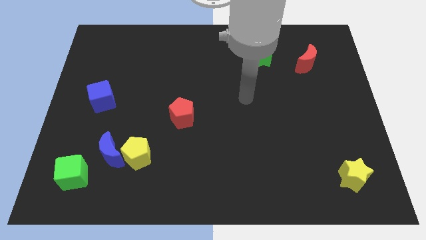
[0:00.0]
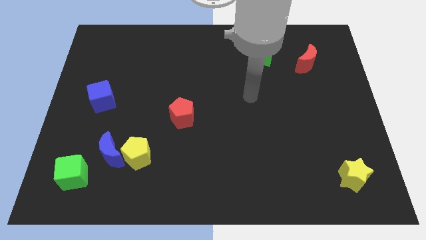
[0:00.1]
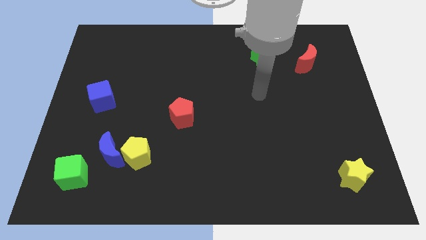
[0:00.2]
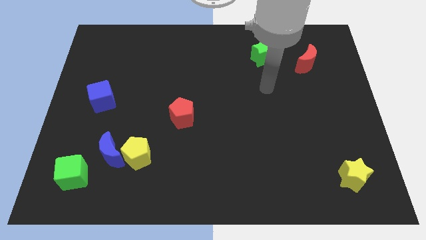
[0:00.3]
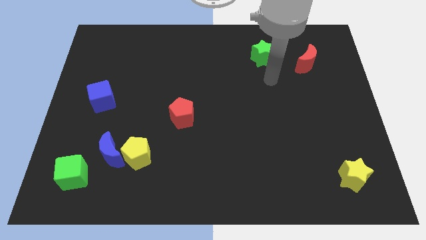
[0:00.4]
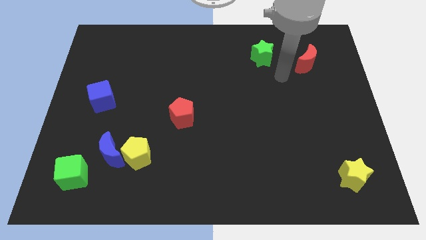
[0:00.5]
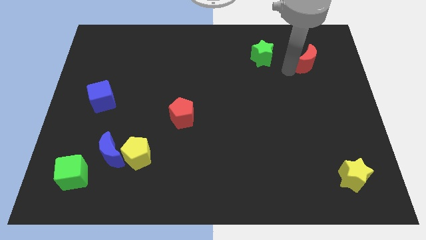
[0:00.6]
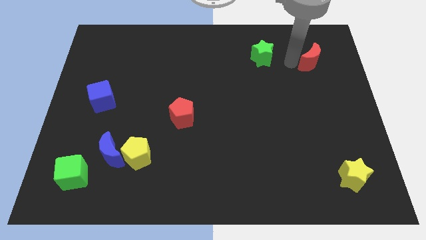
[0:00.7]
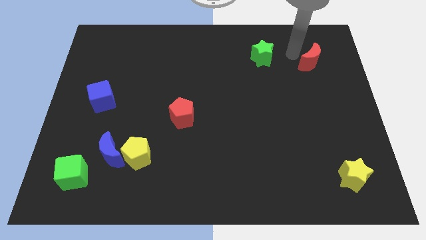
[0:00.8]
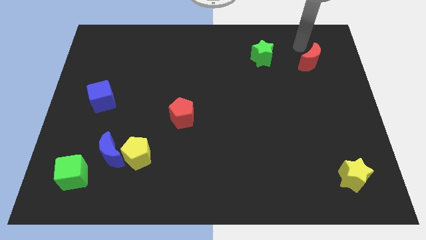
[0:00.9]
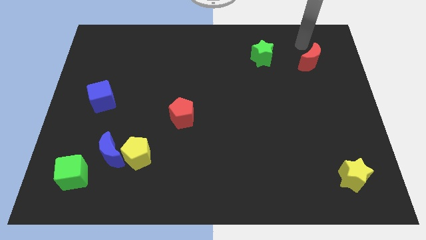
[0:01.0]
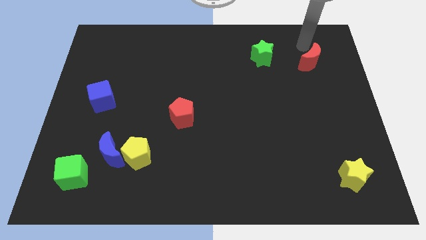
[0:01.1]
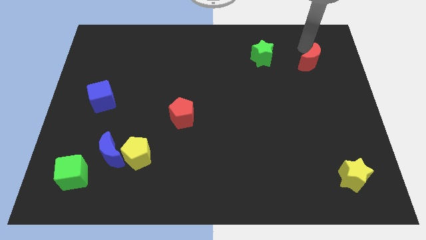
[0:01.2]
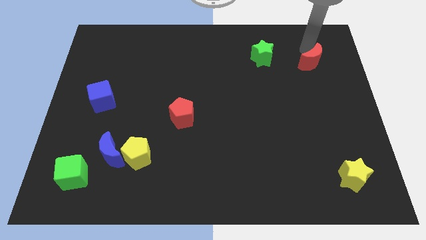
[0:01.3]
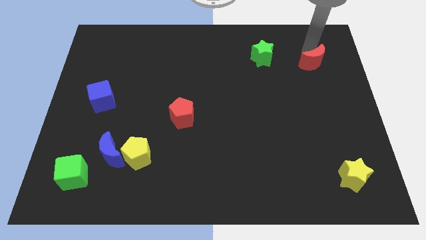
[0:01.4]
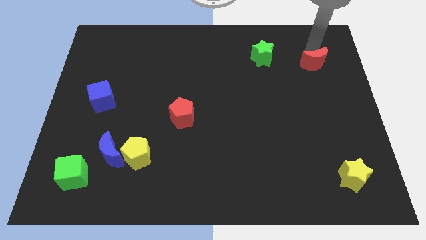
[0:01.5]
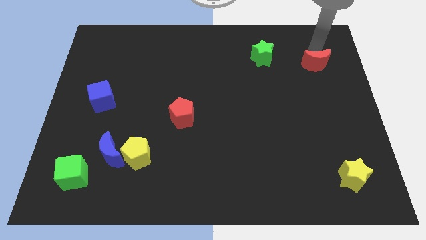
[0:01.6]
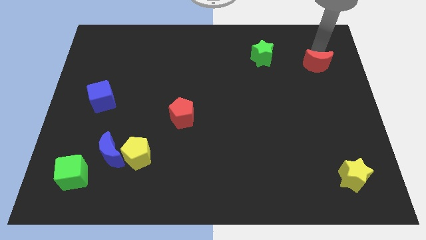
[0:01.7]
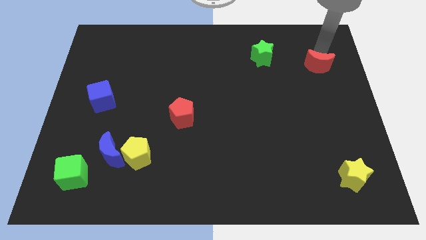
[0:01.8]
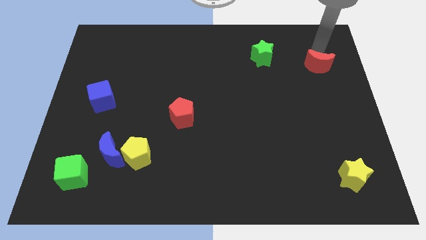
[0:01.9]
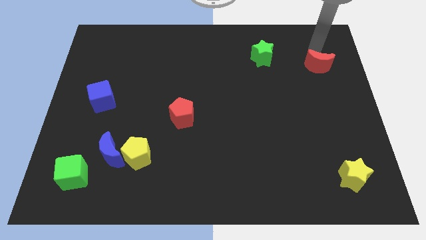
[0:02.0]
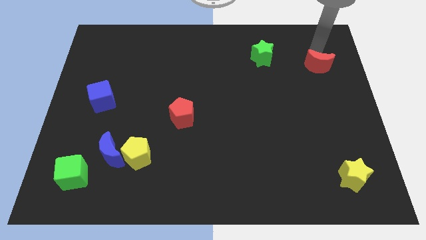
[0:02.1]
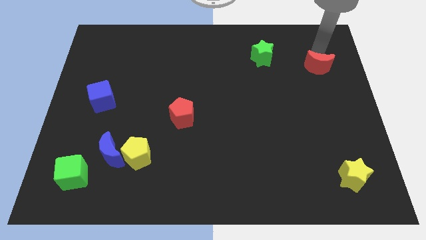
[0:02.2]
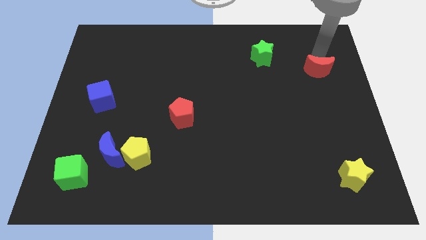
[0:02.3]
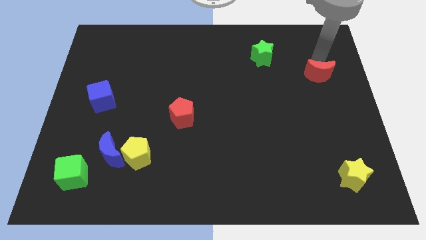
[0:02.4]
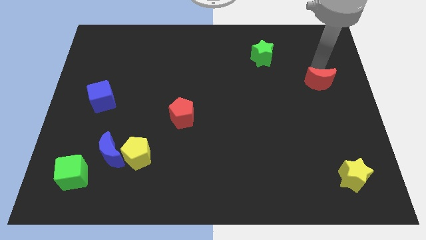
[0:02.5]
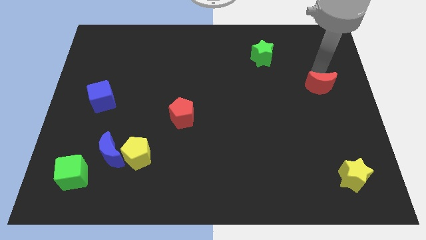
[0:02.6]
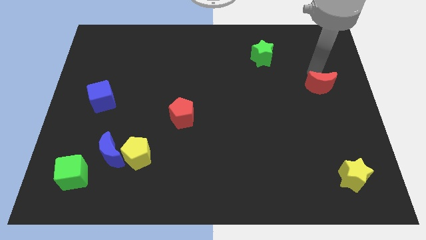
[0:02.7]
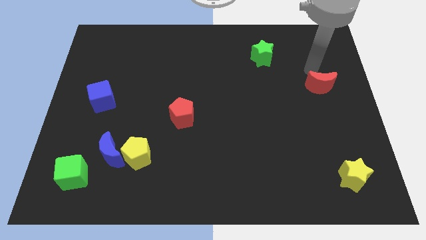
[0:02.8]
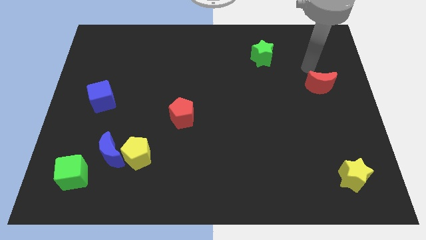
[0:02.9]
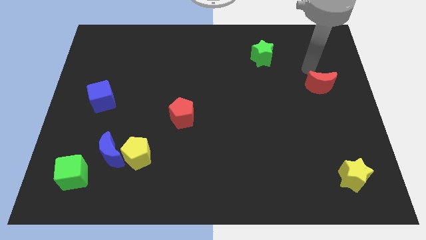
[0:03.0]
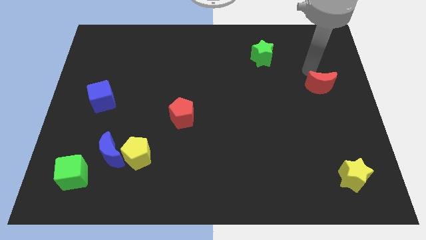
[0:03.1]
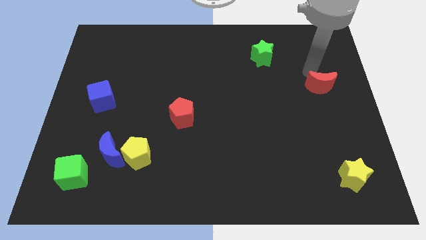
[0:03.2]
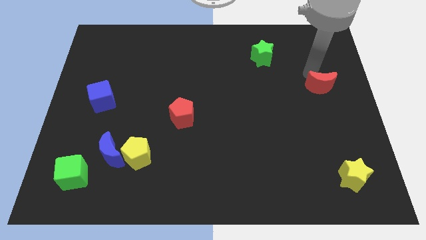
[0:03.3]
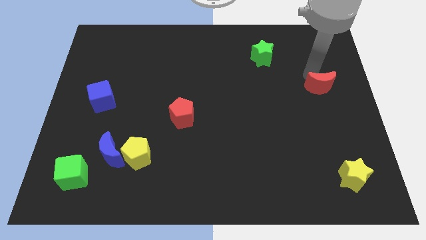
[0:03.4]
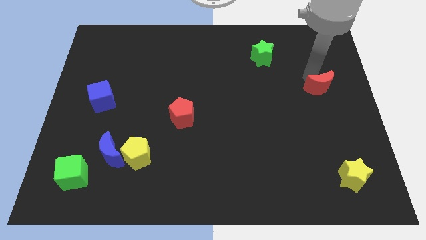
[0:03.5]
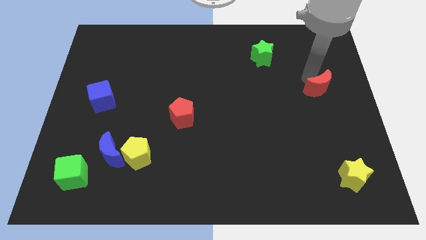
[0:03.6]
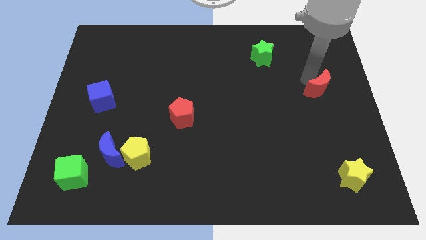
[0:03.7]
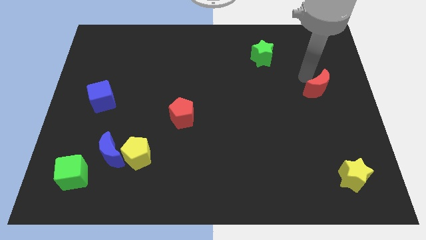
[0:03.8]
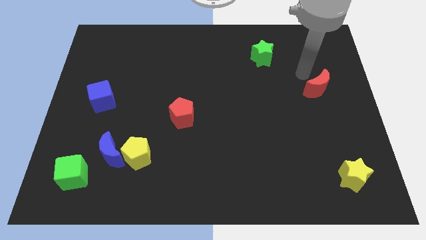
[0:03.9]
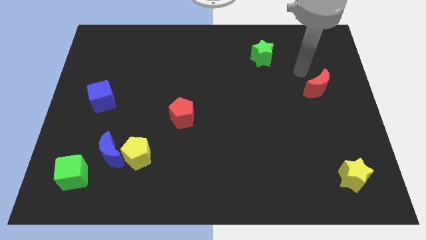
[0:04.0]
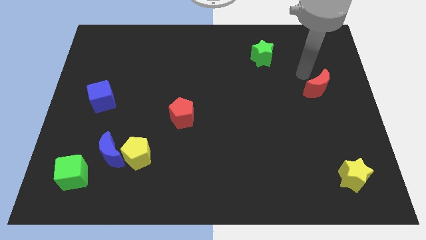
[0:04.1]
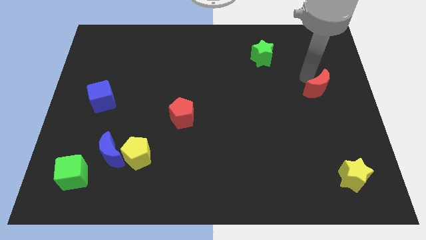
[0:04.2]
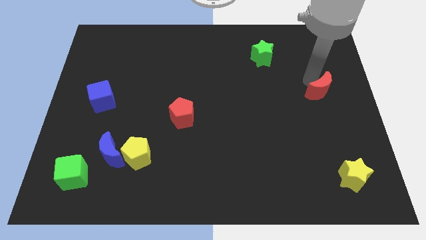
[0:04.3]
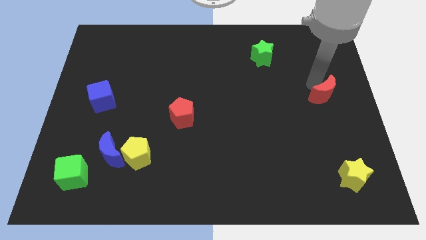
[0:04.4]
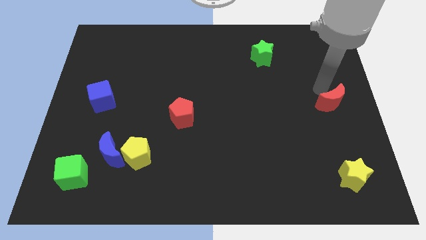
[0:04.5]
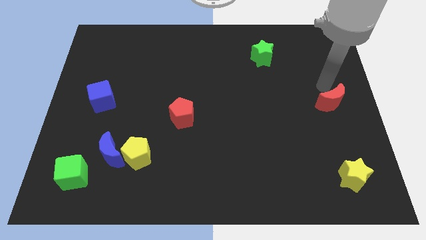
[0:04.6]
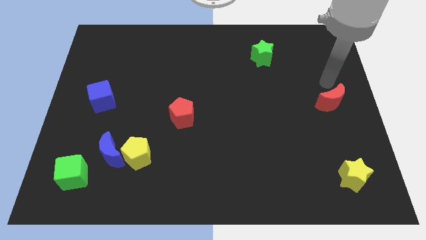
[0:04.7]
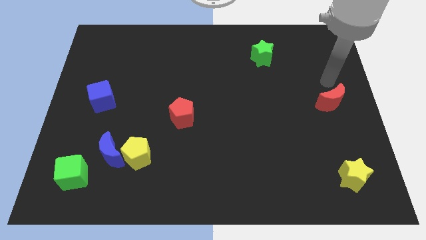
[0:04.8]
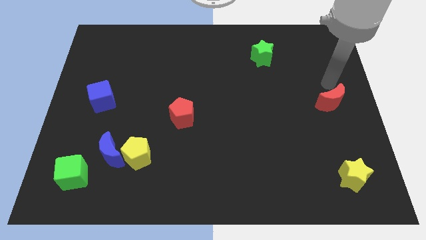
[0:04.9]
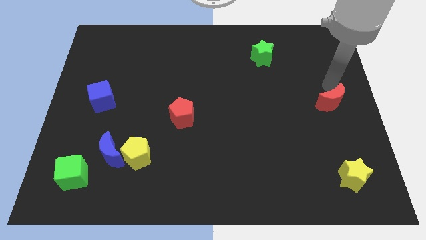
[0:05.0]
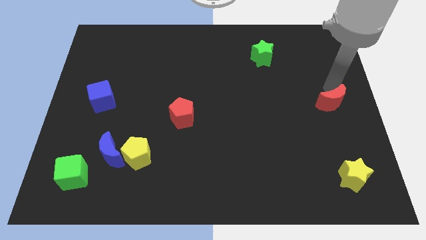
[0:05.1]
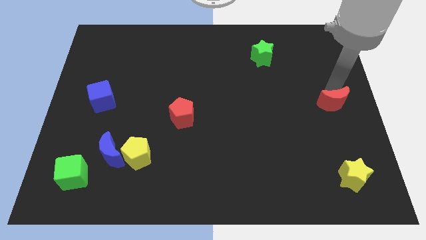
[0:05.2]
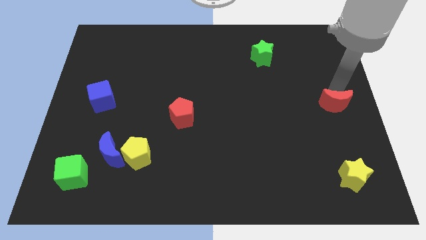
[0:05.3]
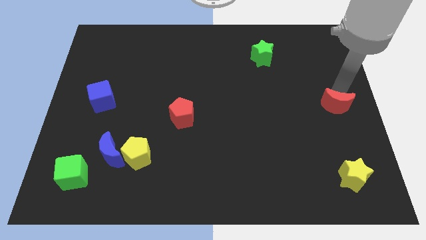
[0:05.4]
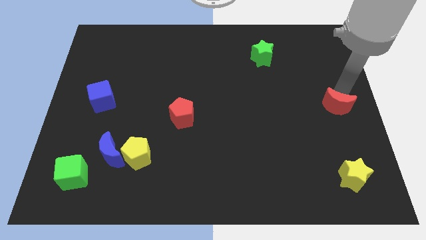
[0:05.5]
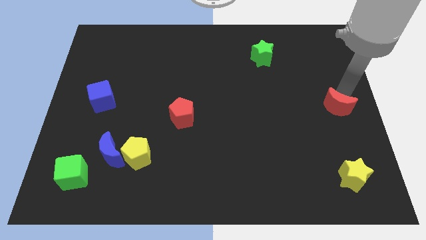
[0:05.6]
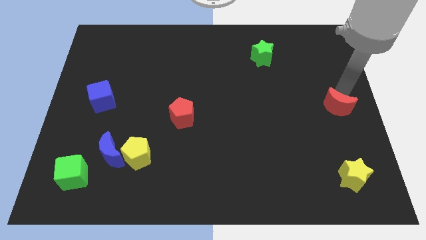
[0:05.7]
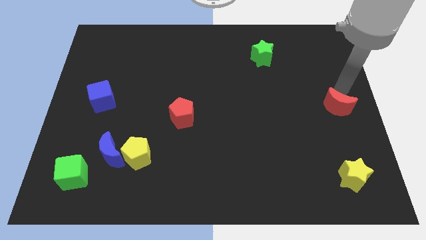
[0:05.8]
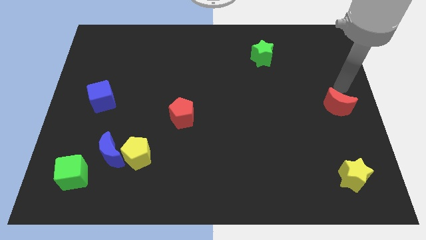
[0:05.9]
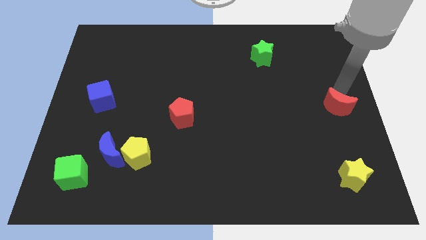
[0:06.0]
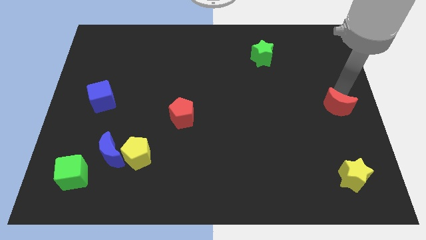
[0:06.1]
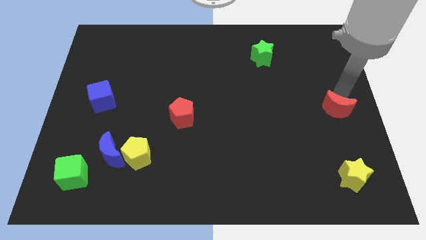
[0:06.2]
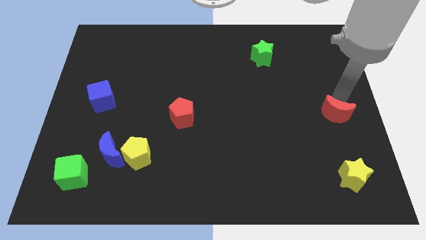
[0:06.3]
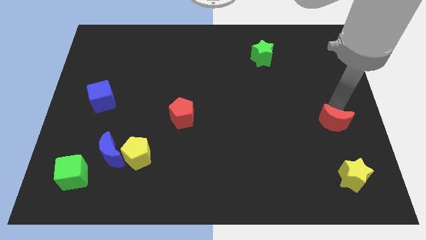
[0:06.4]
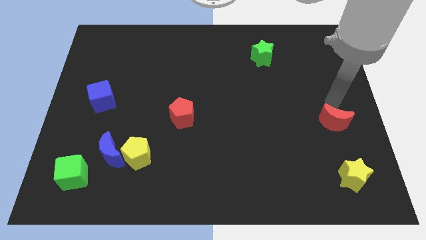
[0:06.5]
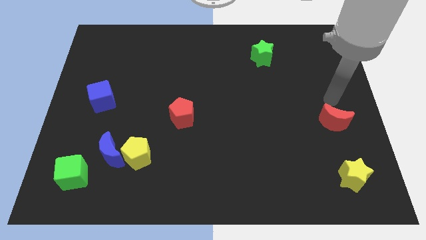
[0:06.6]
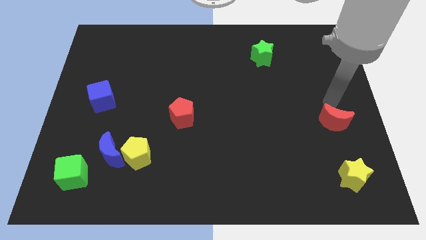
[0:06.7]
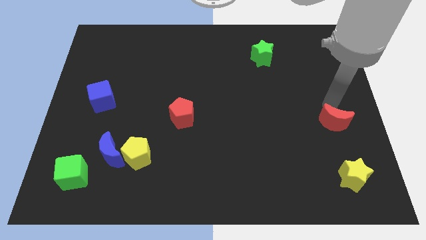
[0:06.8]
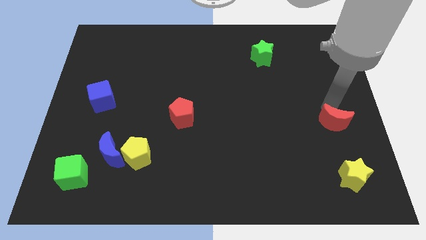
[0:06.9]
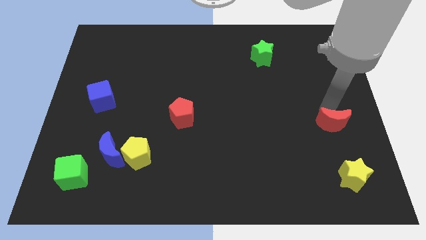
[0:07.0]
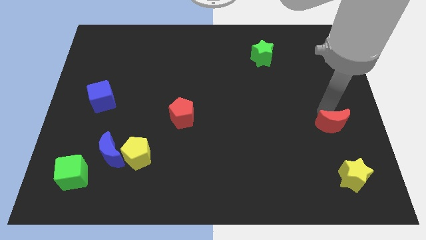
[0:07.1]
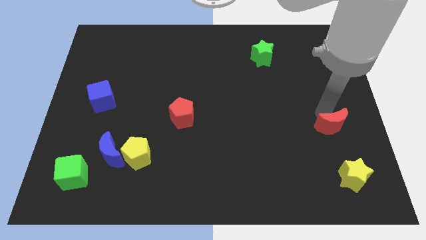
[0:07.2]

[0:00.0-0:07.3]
move the red moon down

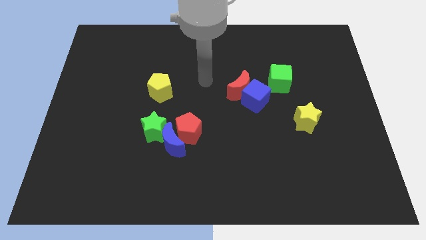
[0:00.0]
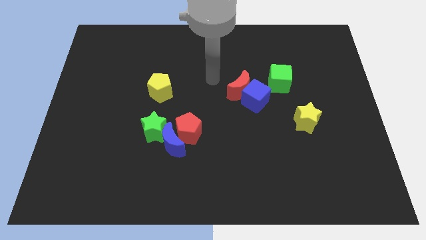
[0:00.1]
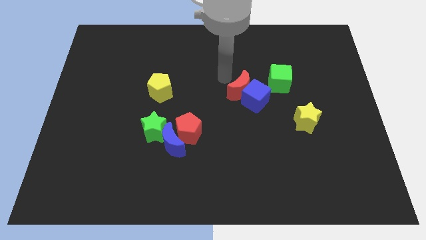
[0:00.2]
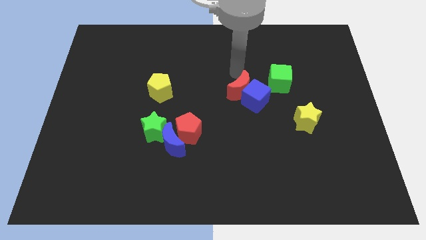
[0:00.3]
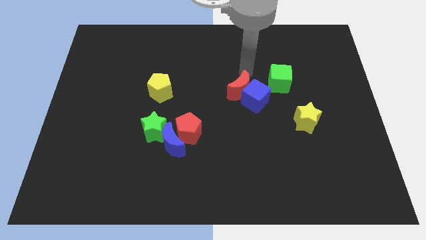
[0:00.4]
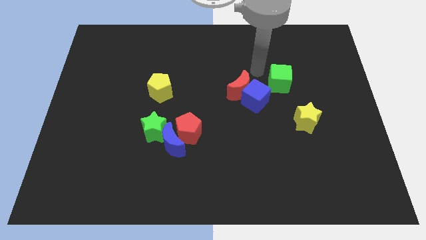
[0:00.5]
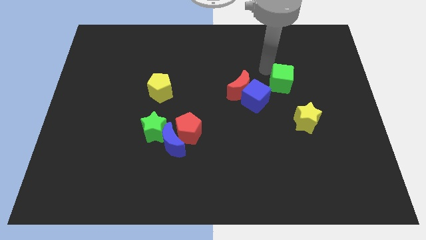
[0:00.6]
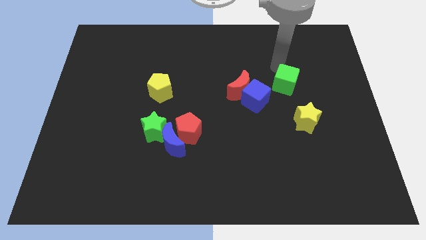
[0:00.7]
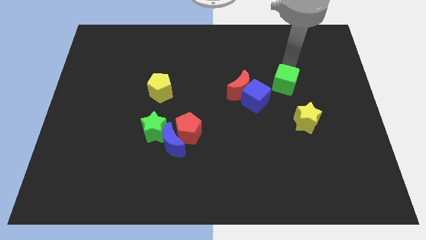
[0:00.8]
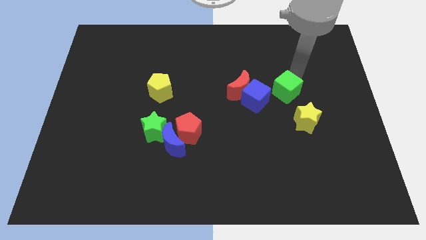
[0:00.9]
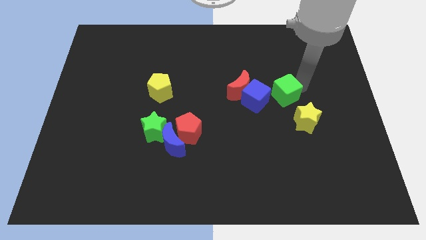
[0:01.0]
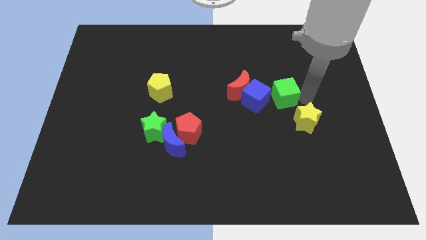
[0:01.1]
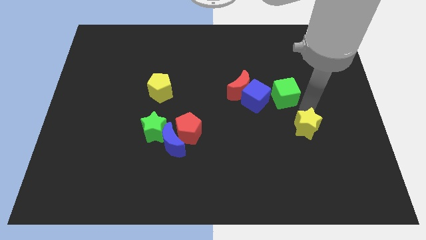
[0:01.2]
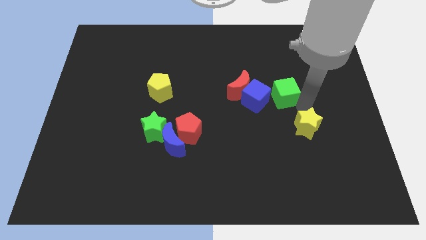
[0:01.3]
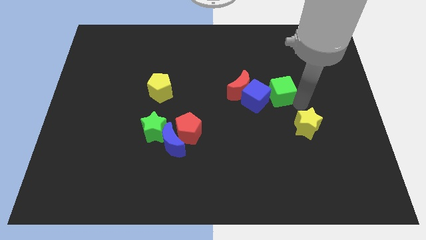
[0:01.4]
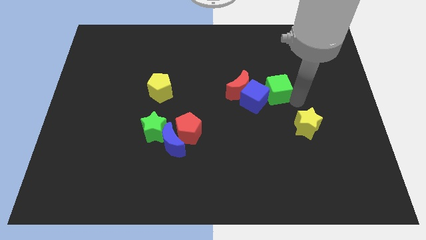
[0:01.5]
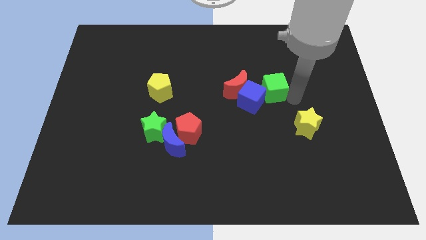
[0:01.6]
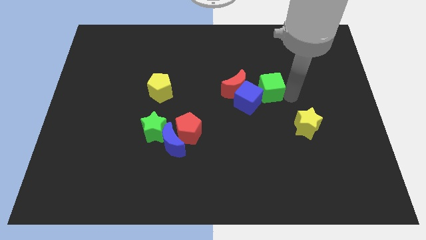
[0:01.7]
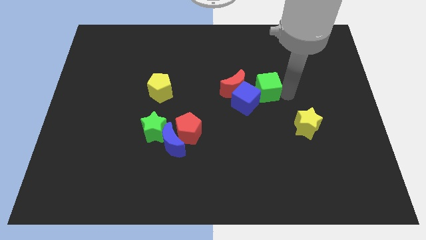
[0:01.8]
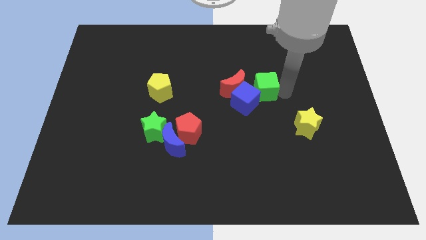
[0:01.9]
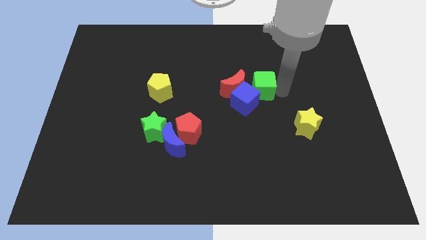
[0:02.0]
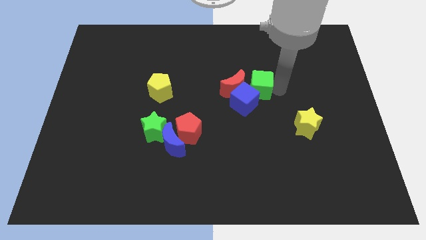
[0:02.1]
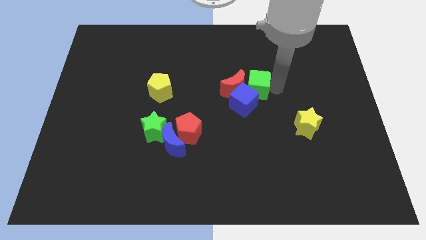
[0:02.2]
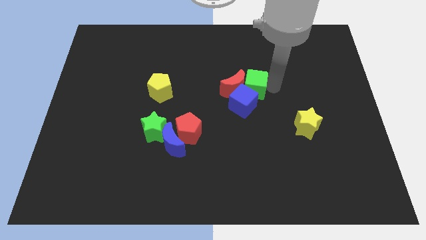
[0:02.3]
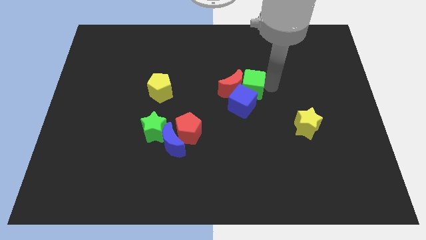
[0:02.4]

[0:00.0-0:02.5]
move the green cube left a bit
